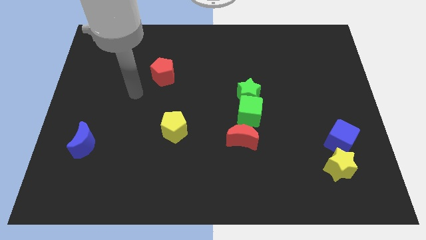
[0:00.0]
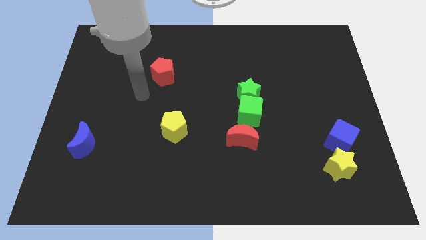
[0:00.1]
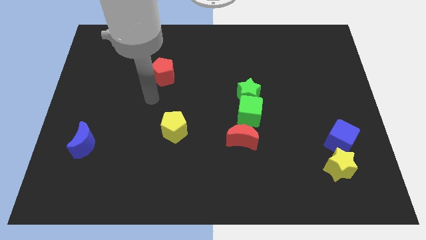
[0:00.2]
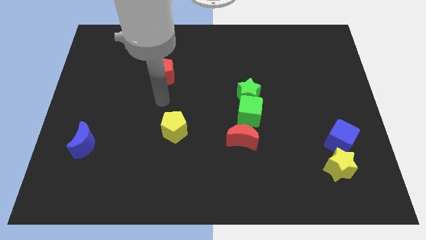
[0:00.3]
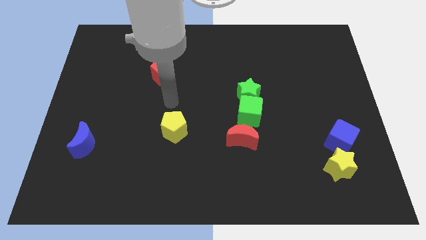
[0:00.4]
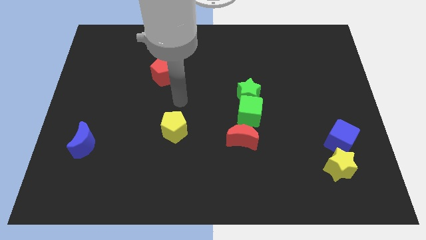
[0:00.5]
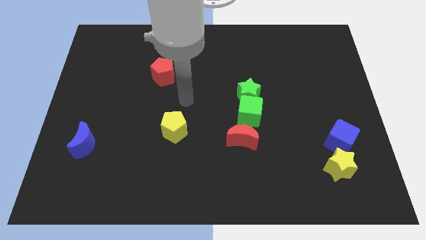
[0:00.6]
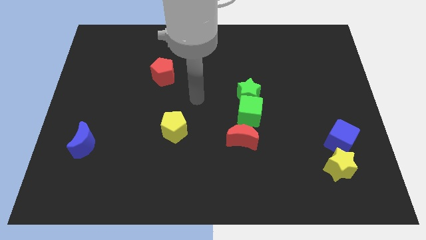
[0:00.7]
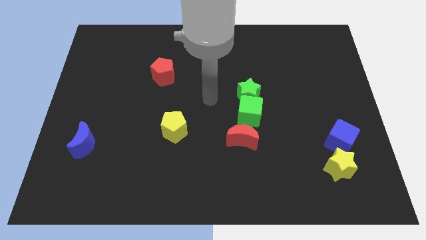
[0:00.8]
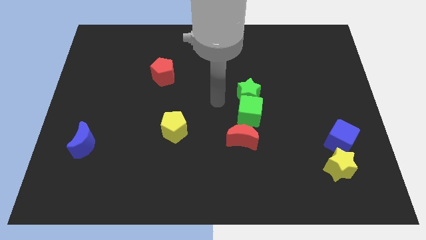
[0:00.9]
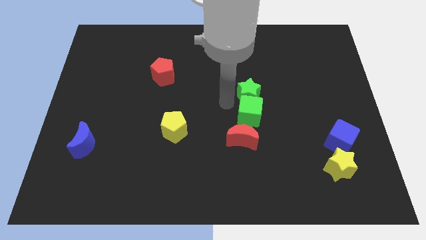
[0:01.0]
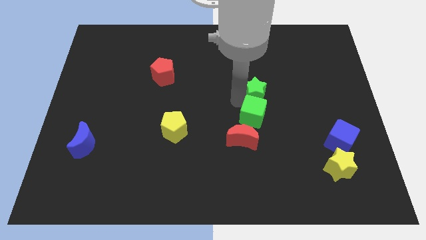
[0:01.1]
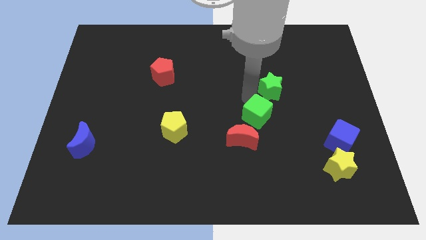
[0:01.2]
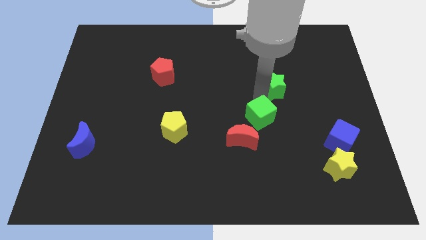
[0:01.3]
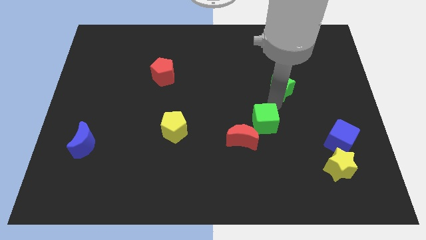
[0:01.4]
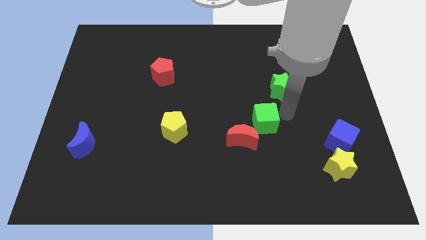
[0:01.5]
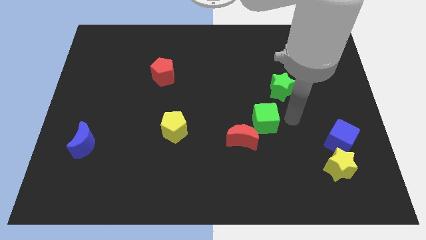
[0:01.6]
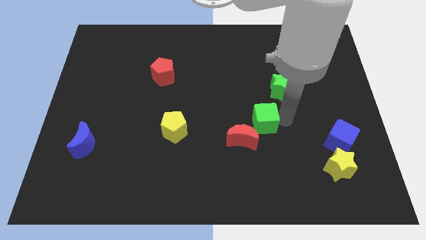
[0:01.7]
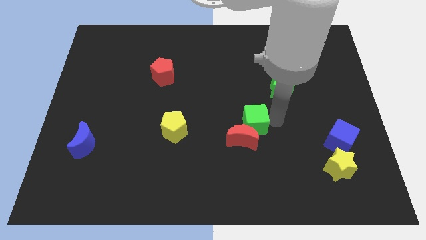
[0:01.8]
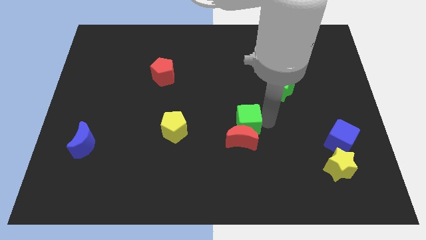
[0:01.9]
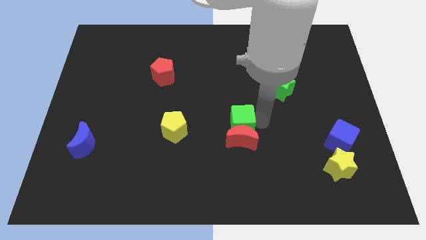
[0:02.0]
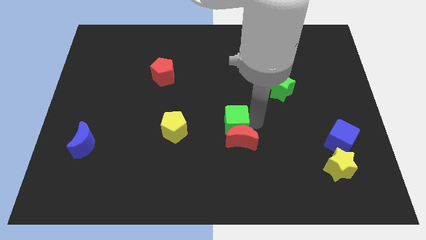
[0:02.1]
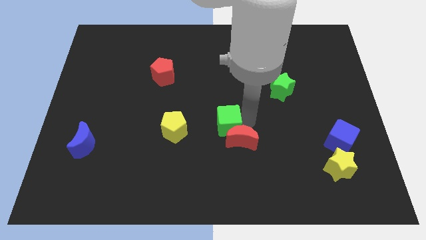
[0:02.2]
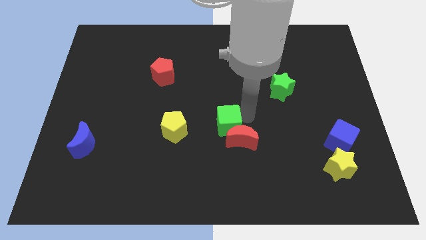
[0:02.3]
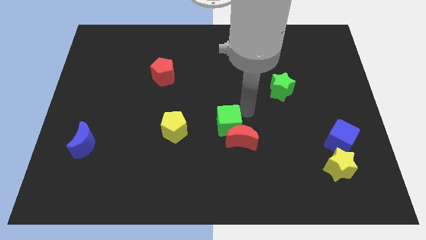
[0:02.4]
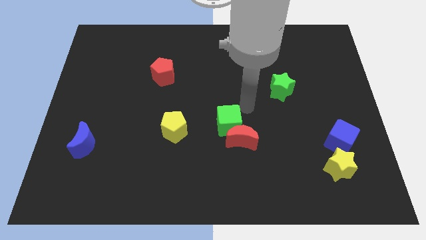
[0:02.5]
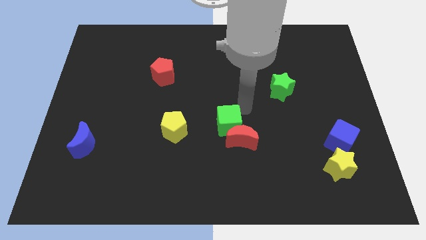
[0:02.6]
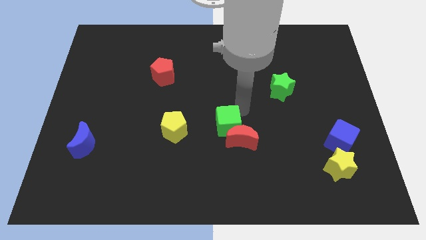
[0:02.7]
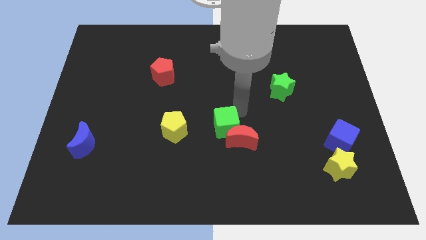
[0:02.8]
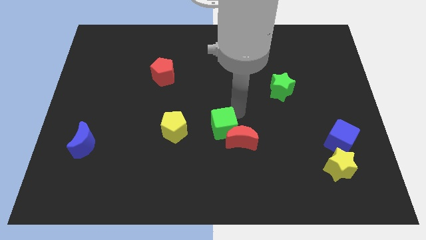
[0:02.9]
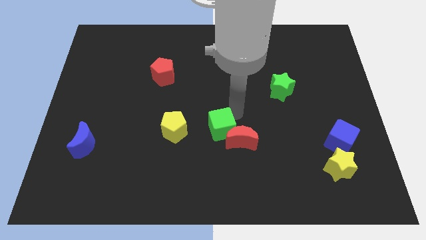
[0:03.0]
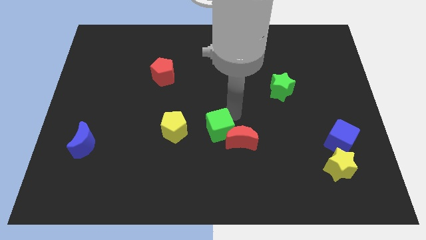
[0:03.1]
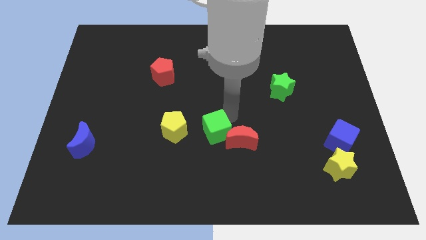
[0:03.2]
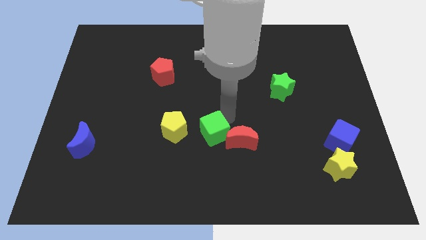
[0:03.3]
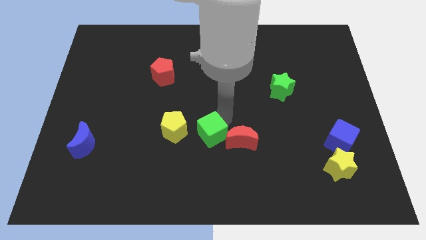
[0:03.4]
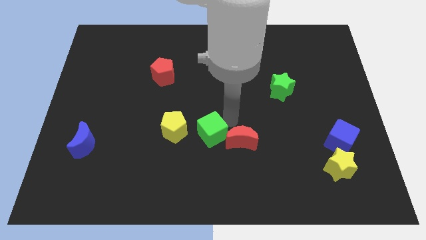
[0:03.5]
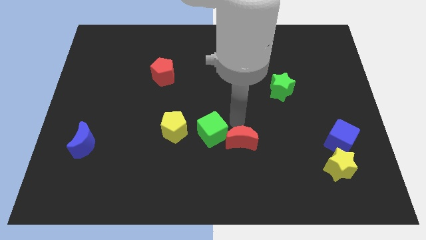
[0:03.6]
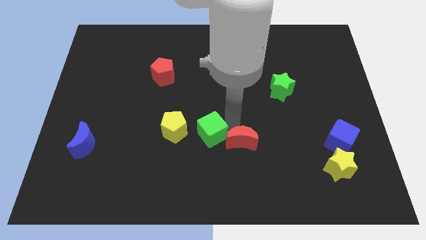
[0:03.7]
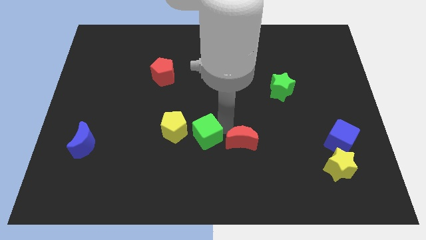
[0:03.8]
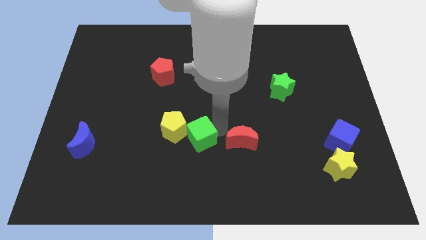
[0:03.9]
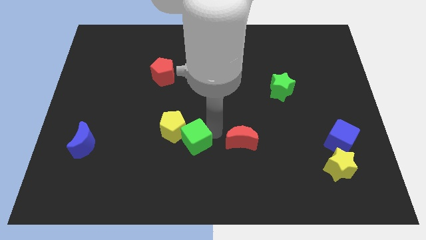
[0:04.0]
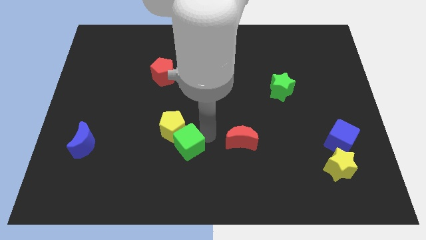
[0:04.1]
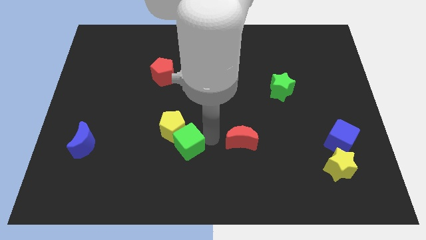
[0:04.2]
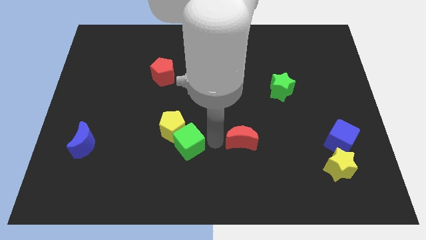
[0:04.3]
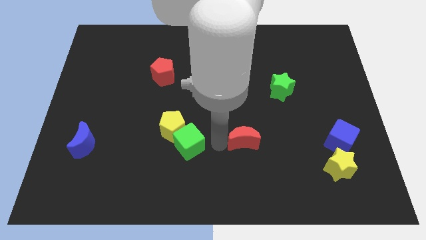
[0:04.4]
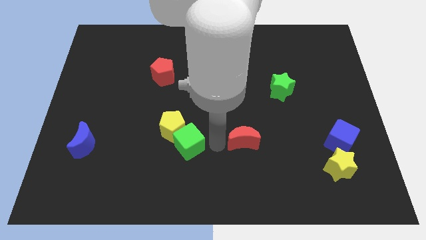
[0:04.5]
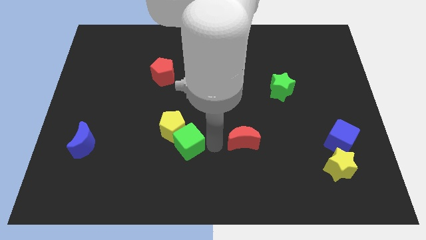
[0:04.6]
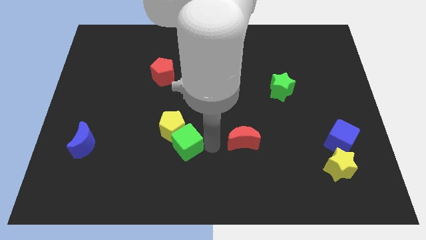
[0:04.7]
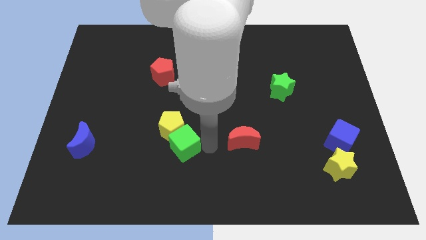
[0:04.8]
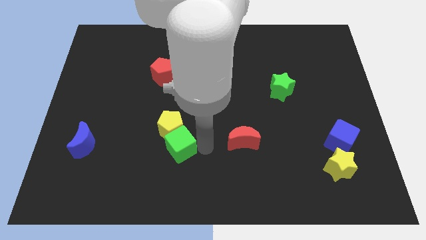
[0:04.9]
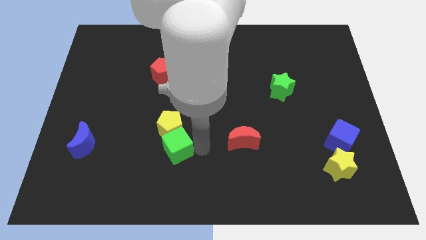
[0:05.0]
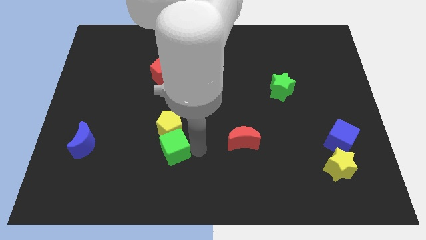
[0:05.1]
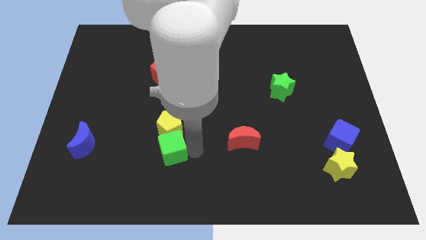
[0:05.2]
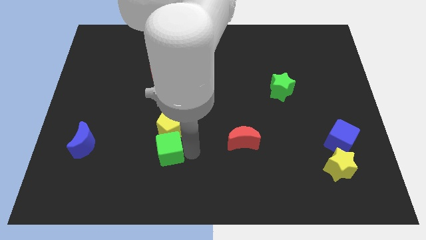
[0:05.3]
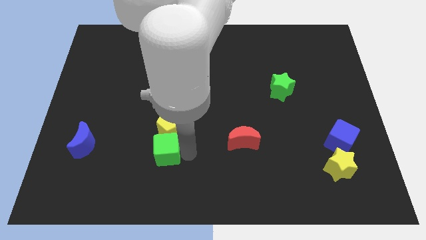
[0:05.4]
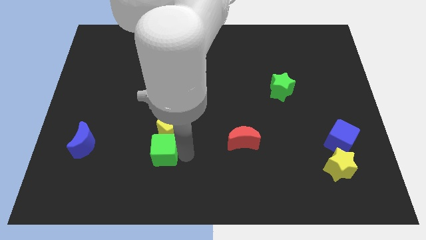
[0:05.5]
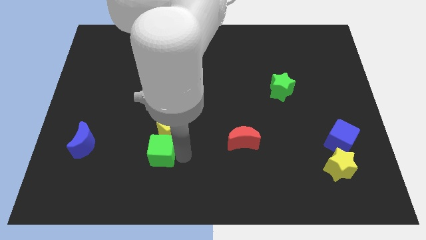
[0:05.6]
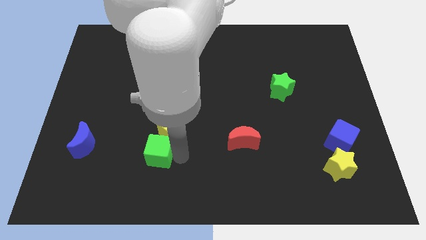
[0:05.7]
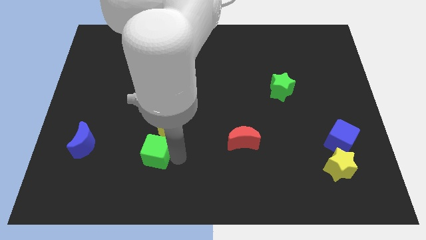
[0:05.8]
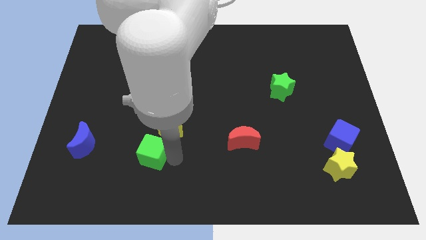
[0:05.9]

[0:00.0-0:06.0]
put the green cube just right of the blue moon
